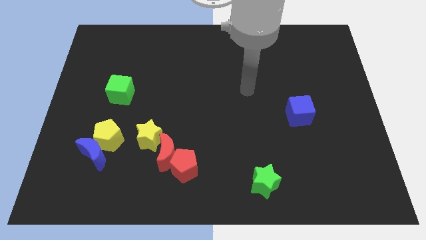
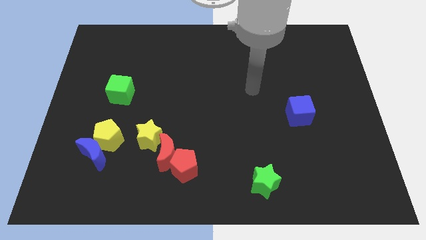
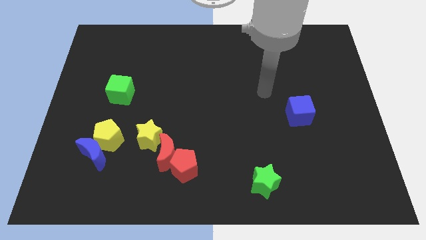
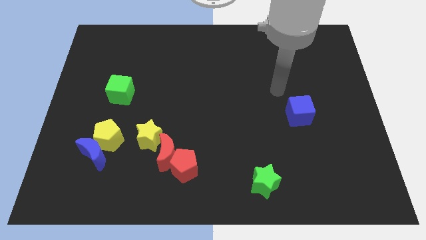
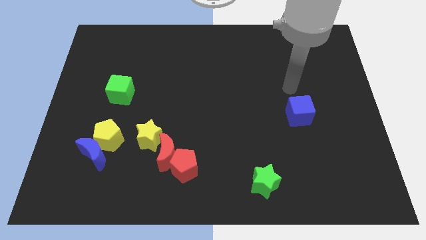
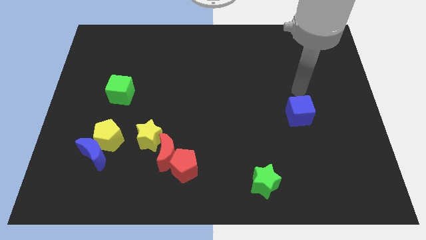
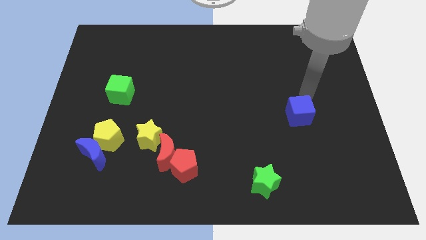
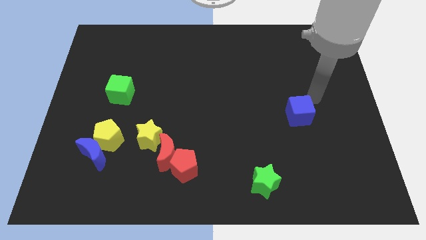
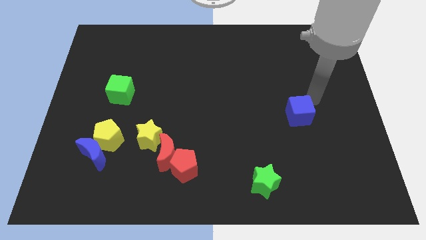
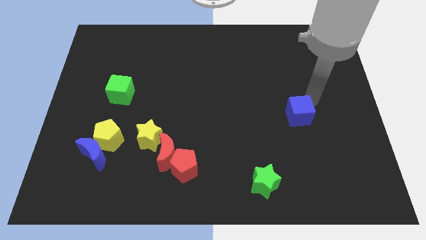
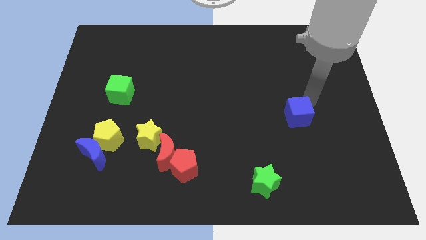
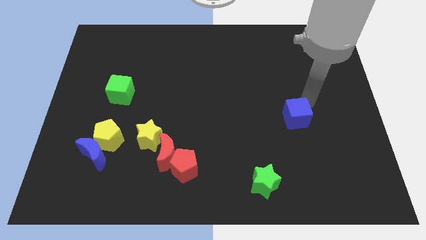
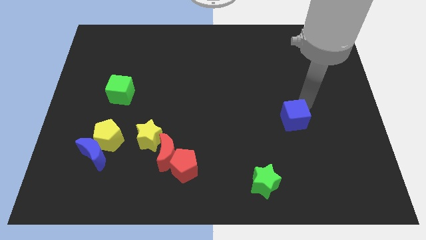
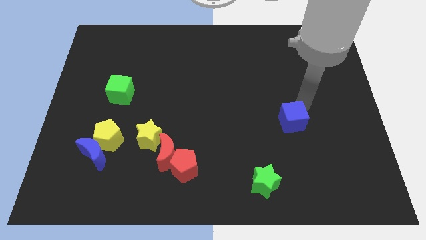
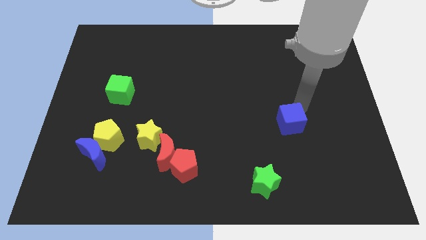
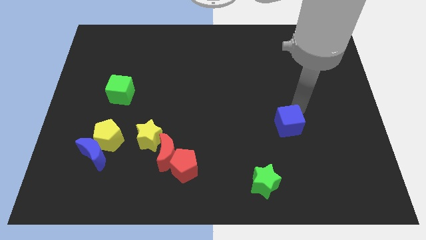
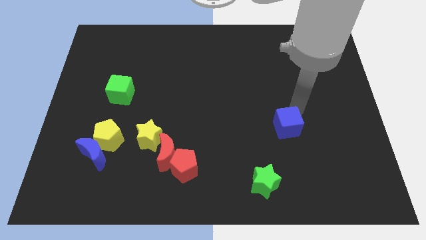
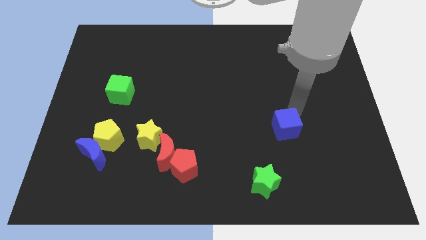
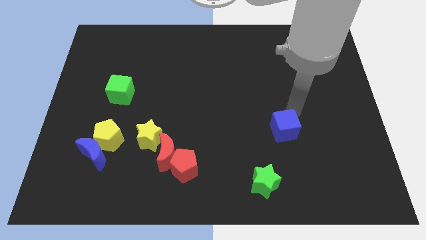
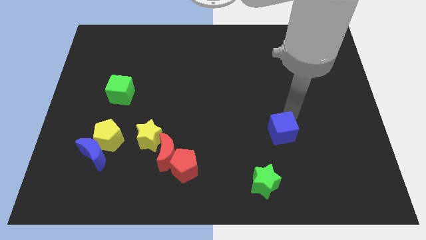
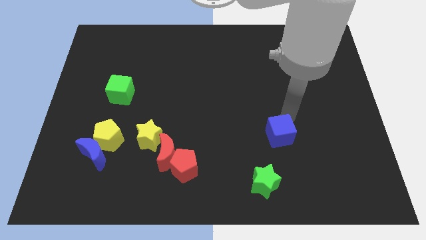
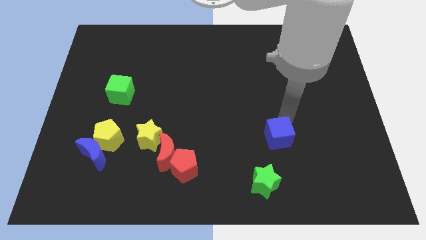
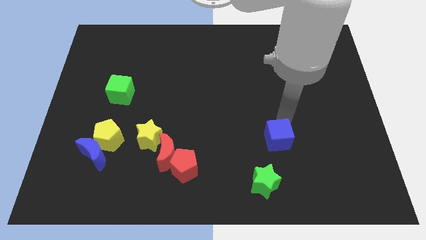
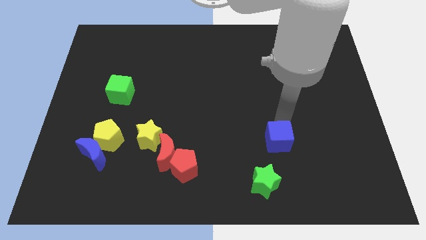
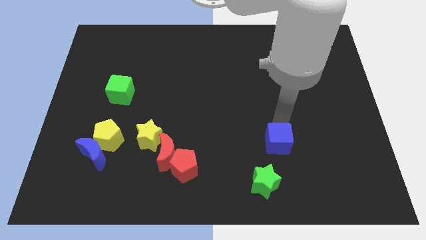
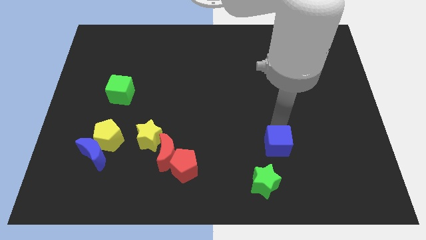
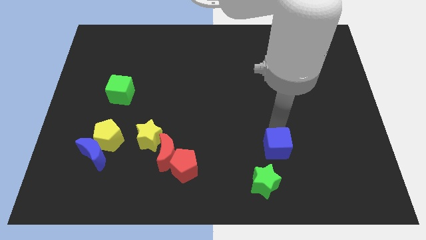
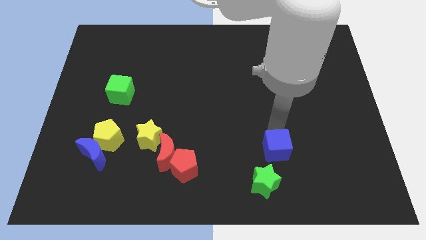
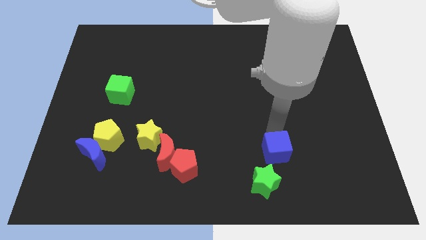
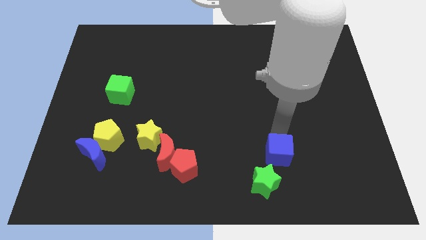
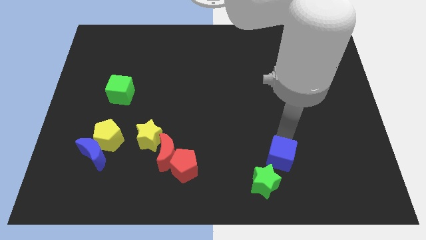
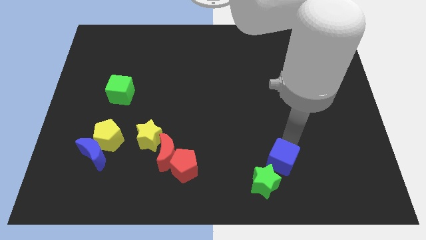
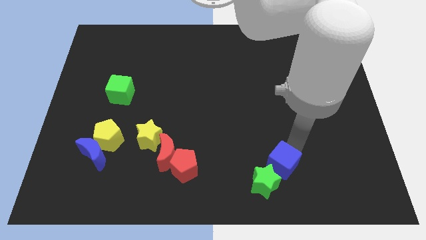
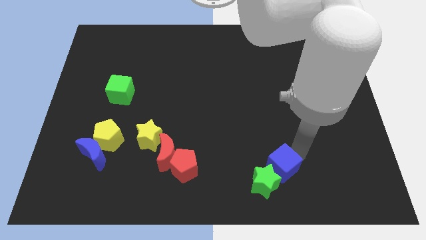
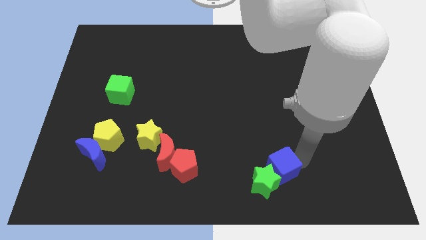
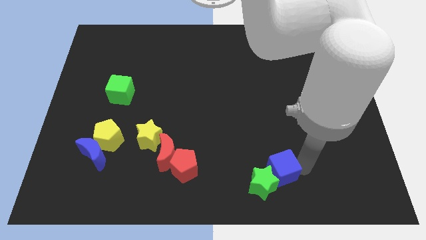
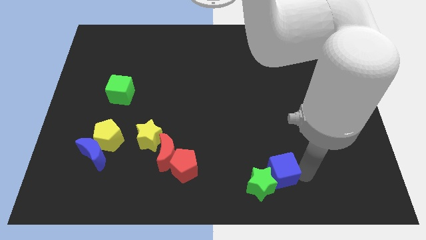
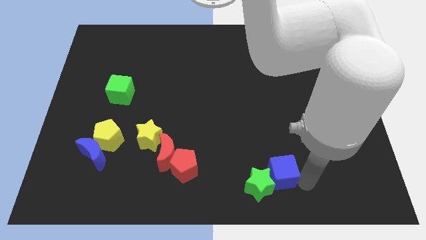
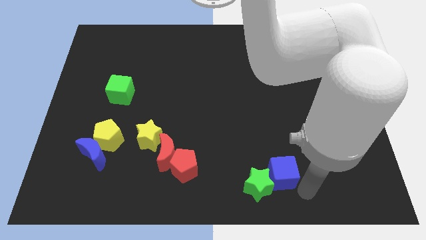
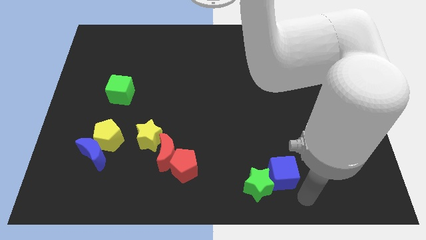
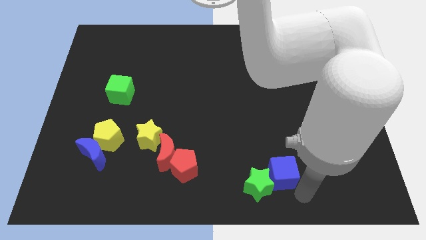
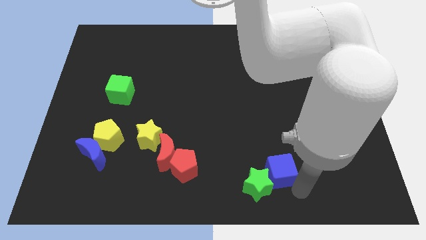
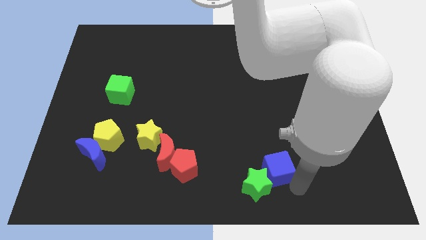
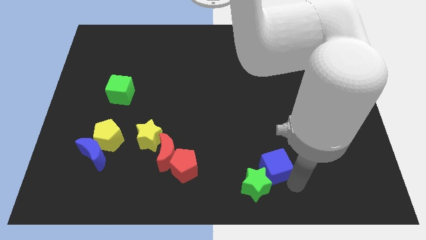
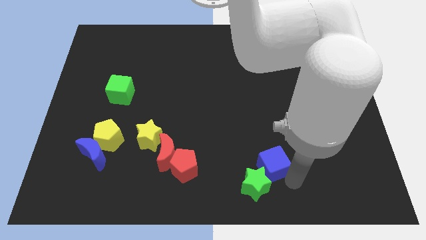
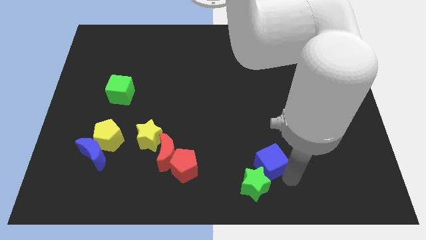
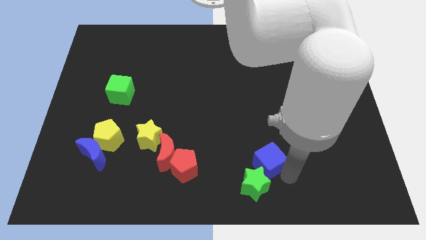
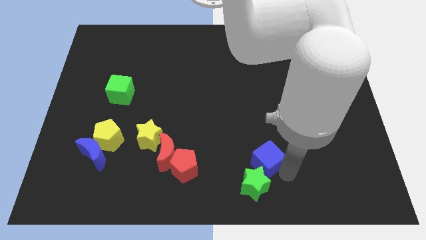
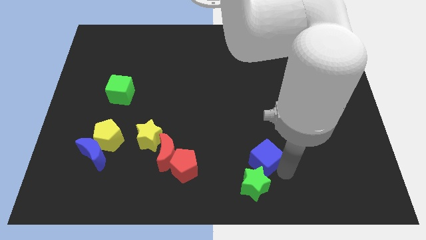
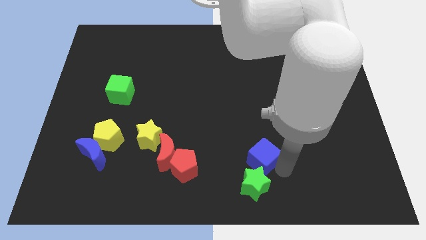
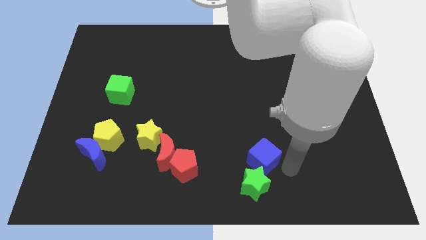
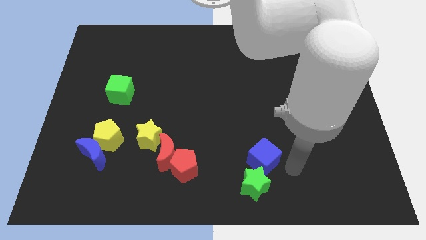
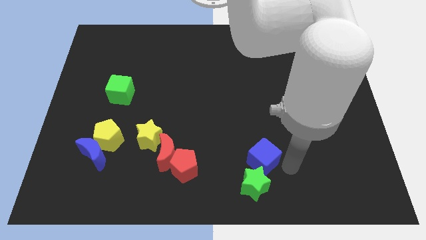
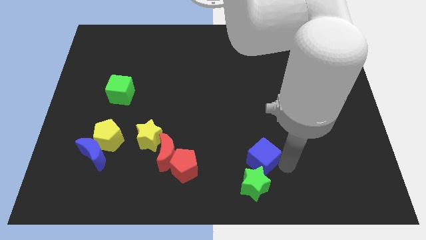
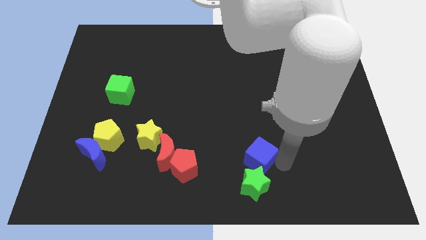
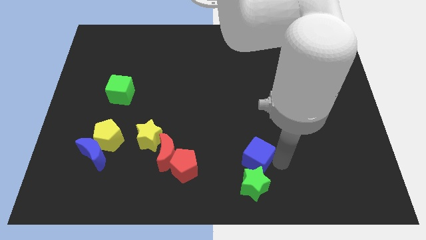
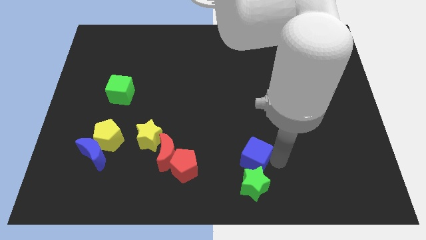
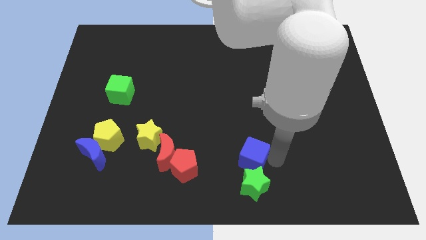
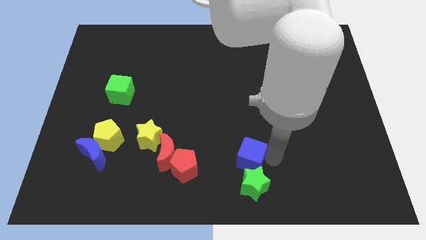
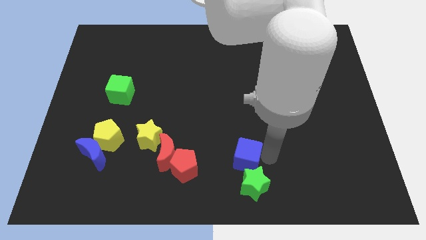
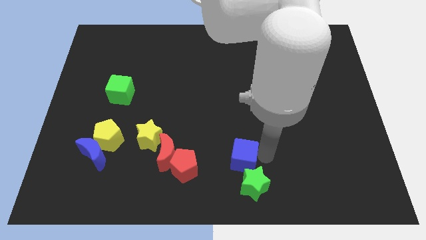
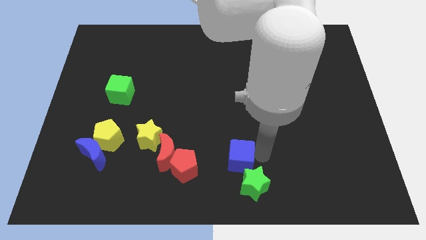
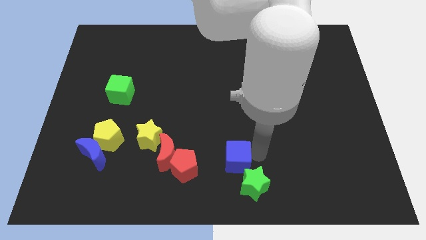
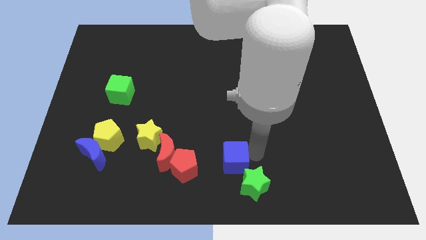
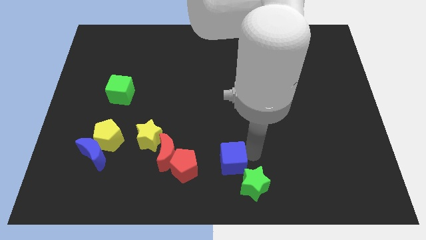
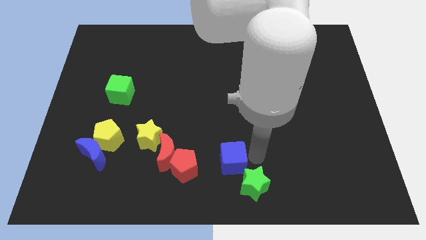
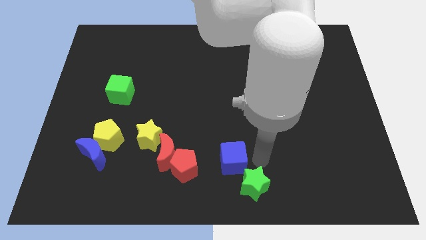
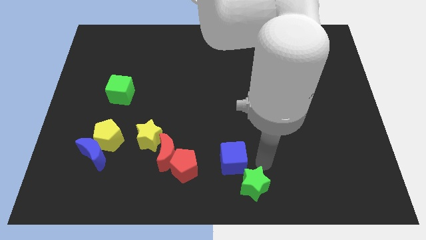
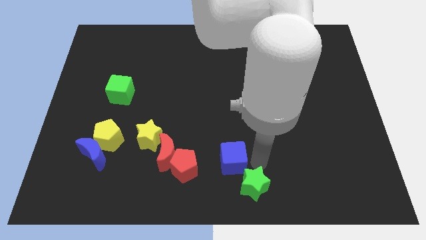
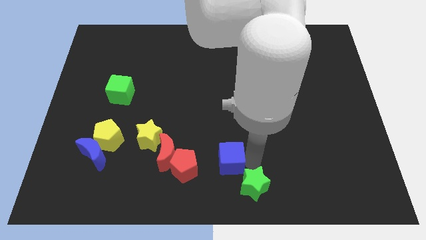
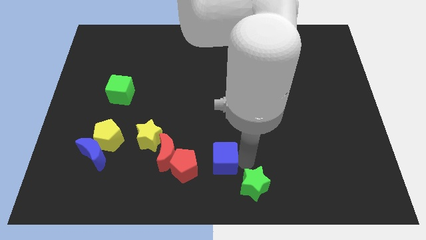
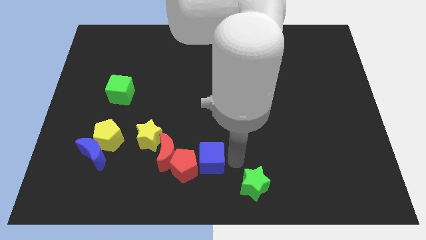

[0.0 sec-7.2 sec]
move the blue cube close to the red pentagon
